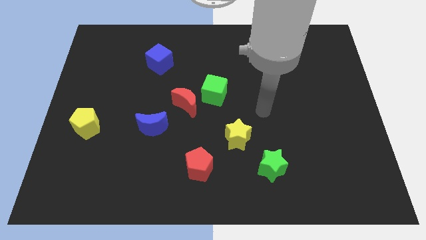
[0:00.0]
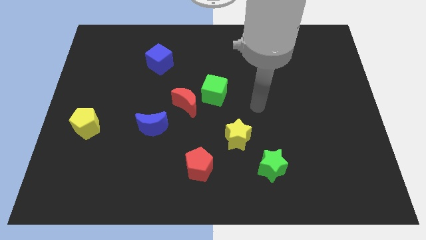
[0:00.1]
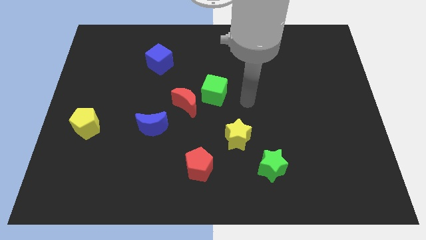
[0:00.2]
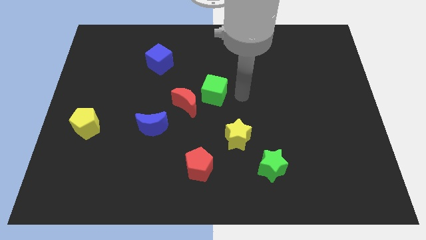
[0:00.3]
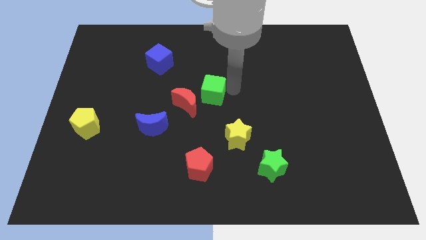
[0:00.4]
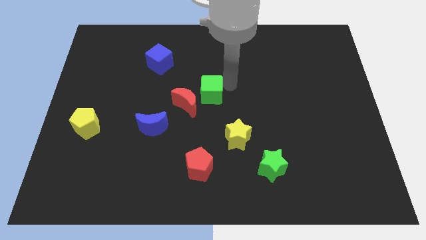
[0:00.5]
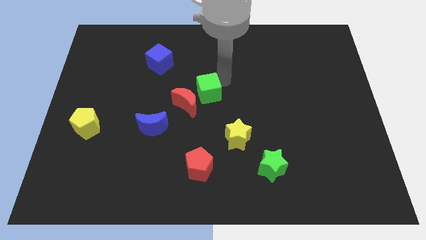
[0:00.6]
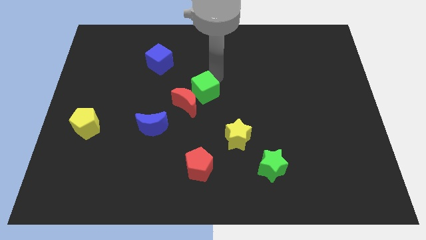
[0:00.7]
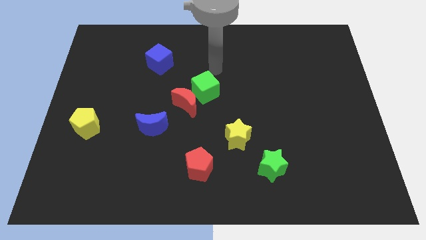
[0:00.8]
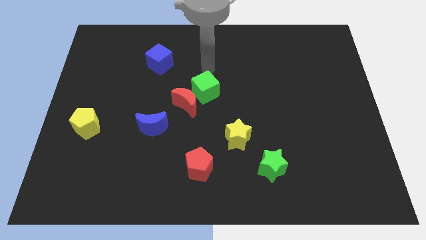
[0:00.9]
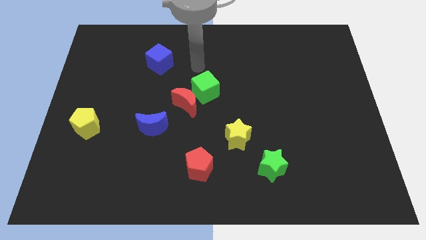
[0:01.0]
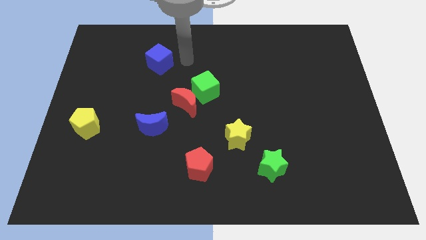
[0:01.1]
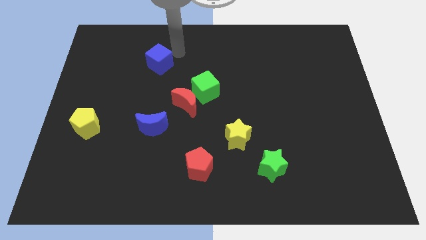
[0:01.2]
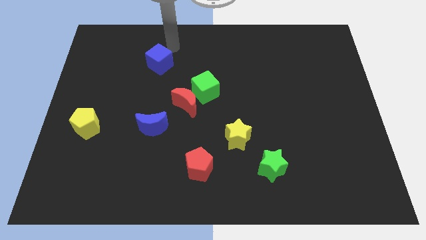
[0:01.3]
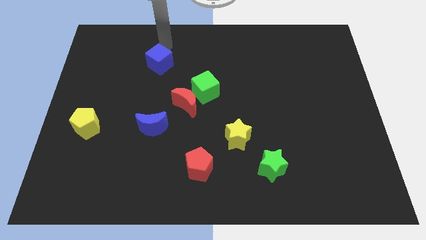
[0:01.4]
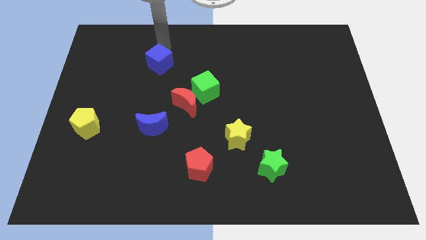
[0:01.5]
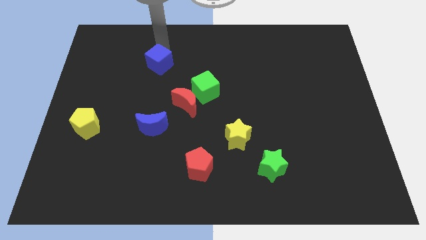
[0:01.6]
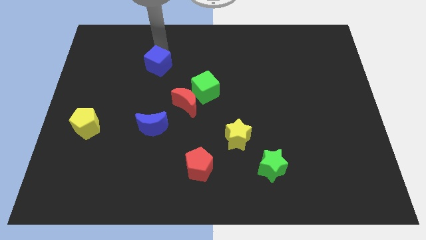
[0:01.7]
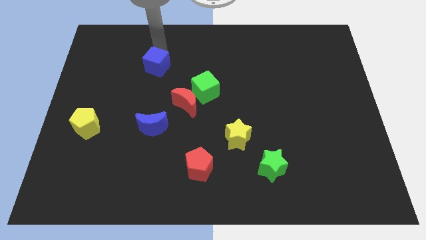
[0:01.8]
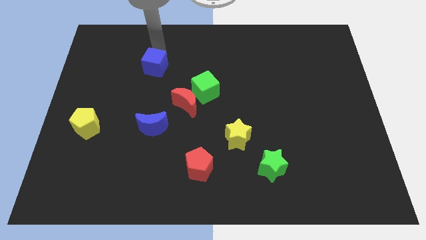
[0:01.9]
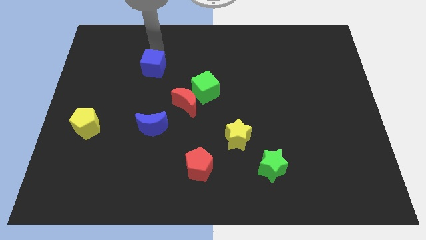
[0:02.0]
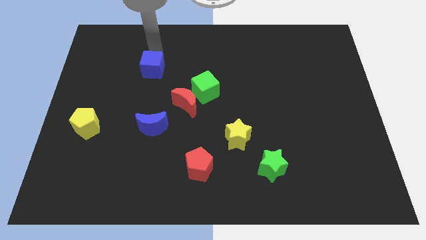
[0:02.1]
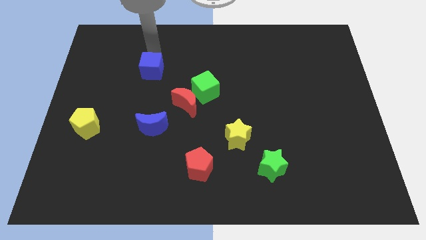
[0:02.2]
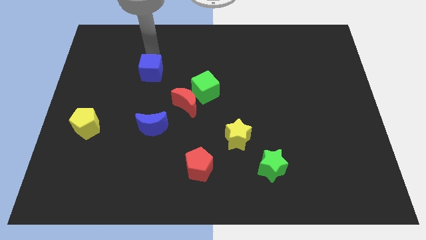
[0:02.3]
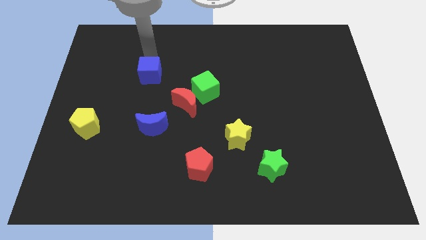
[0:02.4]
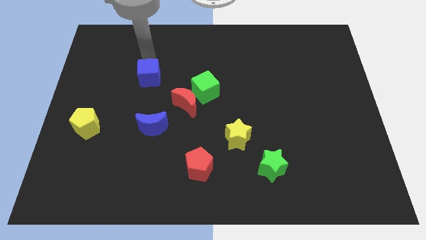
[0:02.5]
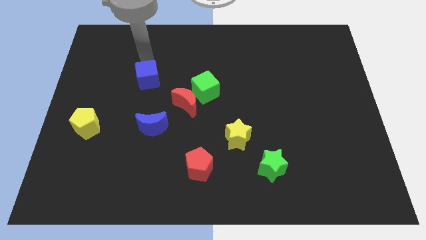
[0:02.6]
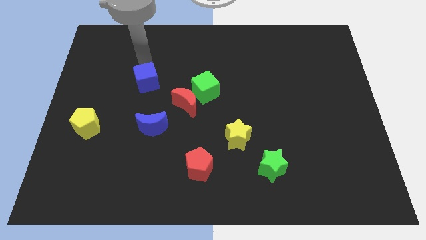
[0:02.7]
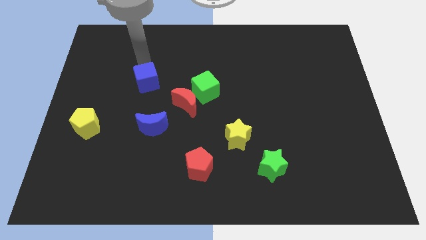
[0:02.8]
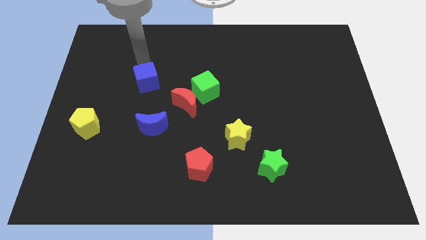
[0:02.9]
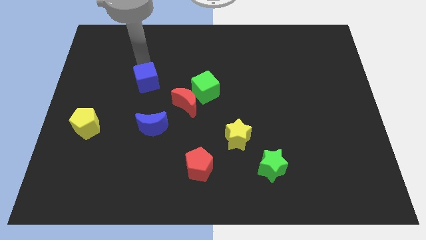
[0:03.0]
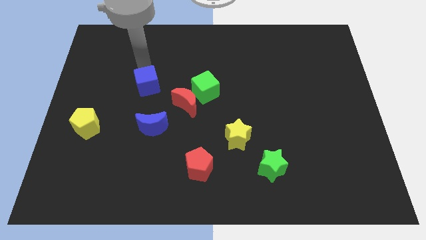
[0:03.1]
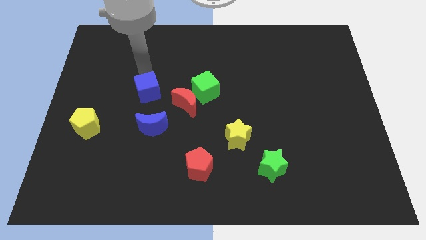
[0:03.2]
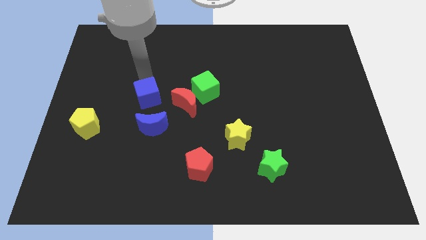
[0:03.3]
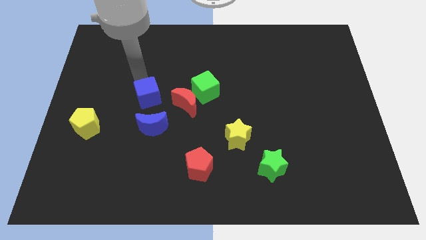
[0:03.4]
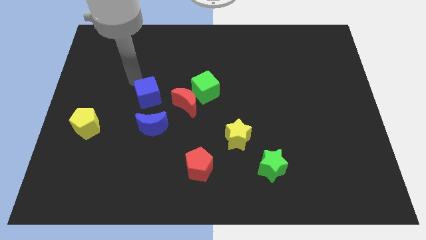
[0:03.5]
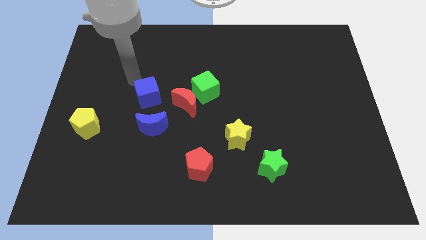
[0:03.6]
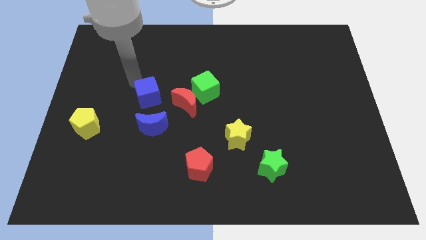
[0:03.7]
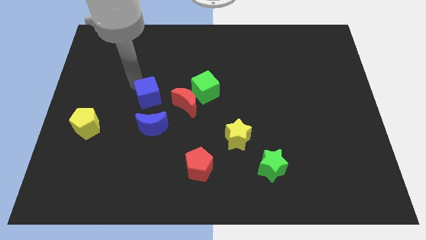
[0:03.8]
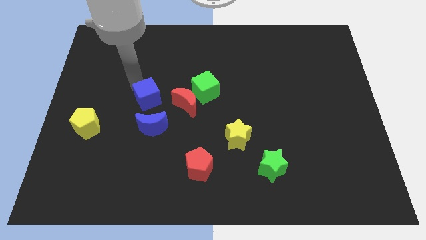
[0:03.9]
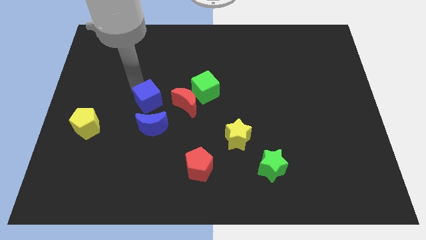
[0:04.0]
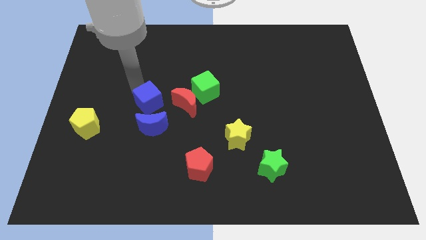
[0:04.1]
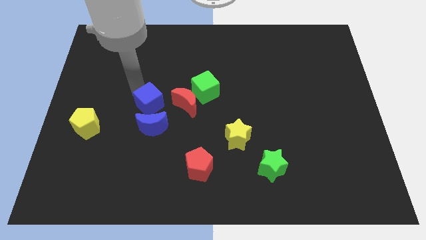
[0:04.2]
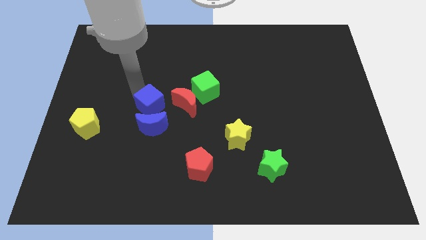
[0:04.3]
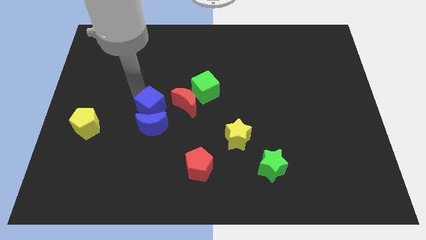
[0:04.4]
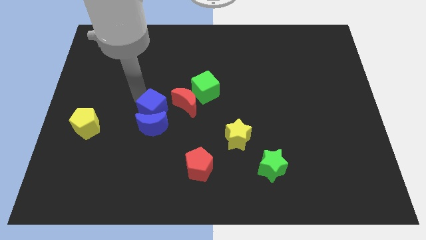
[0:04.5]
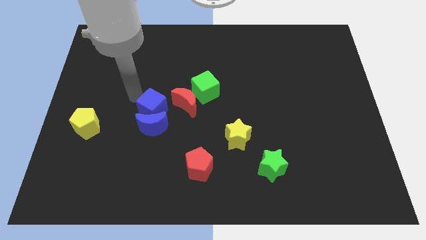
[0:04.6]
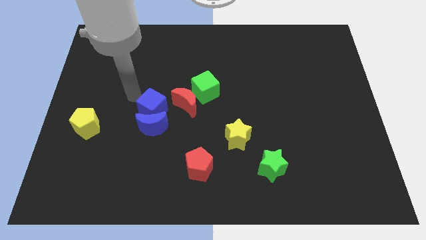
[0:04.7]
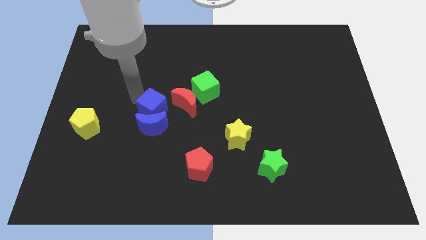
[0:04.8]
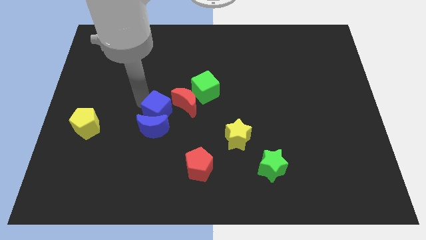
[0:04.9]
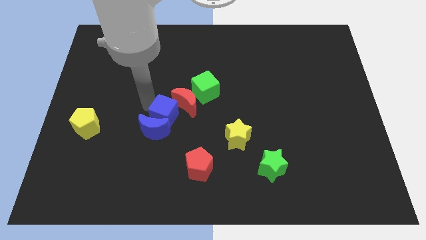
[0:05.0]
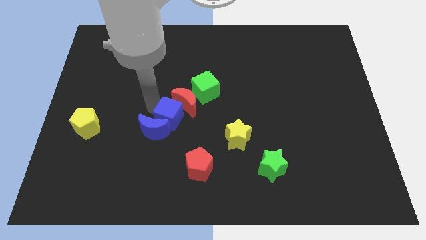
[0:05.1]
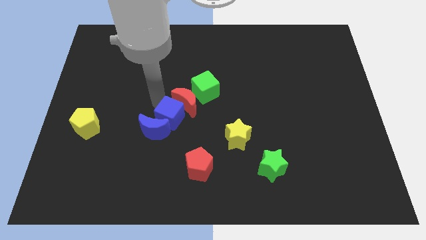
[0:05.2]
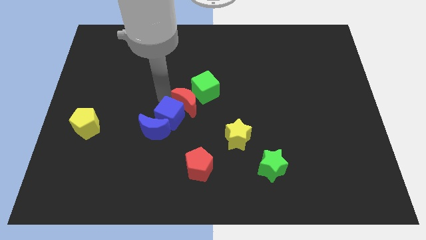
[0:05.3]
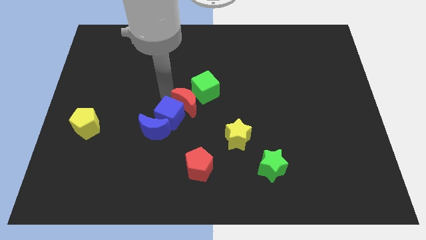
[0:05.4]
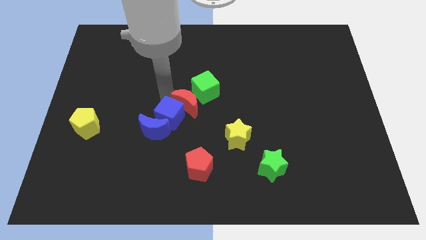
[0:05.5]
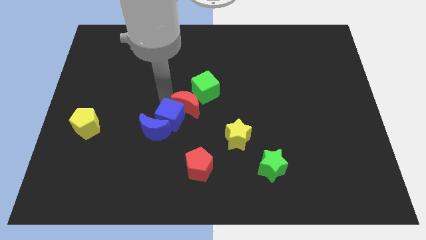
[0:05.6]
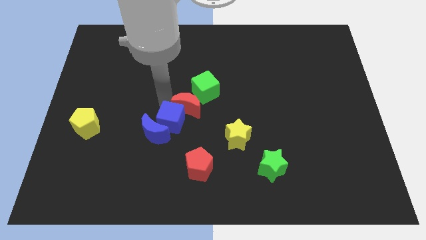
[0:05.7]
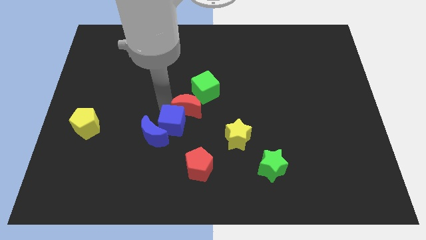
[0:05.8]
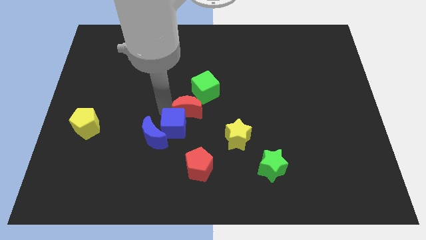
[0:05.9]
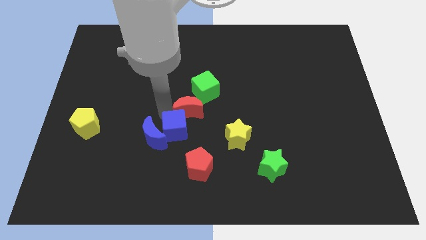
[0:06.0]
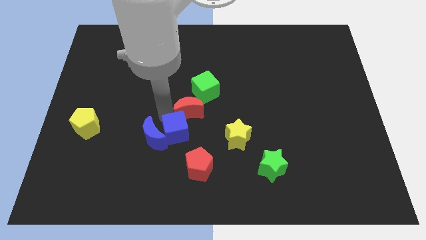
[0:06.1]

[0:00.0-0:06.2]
move the blue cube to the bottom right of the blue moon

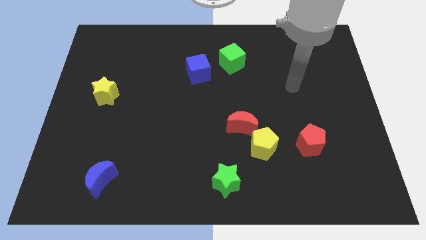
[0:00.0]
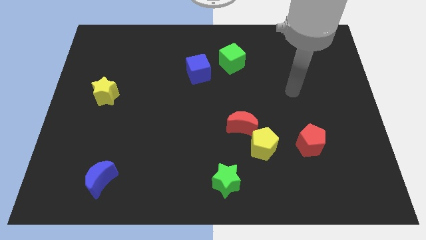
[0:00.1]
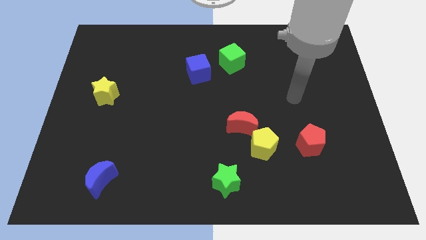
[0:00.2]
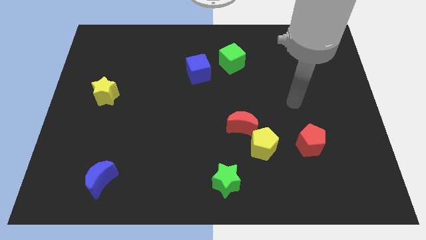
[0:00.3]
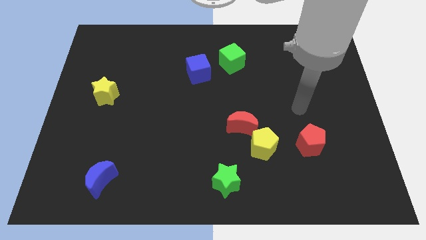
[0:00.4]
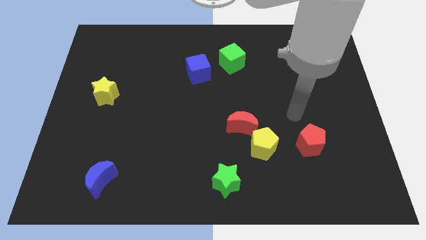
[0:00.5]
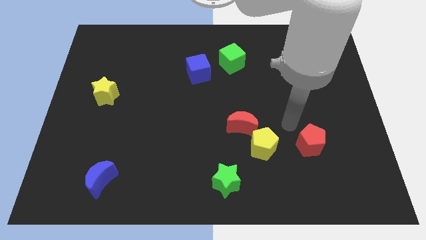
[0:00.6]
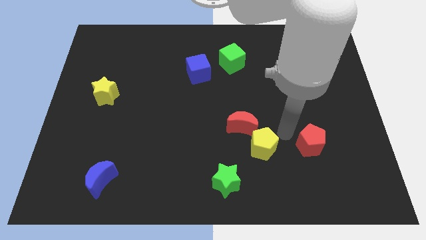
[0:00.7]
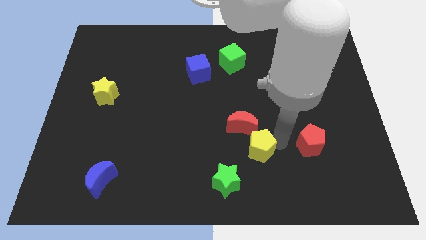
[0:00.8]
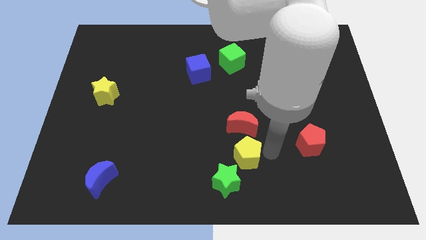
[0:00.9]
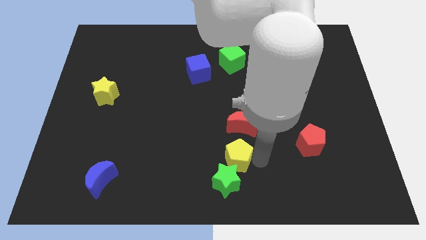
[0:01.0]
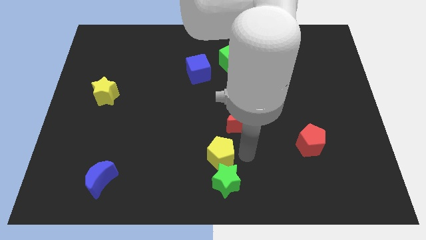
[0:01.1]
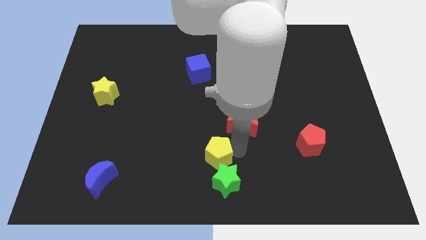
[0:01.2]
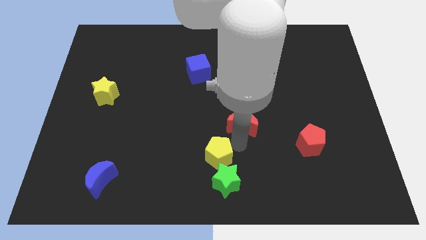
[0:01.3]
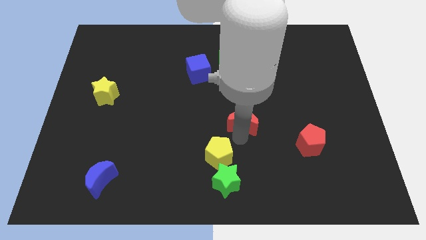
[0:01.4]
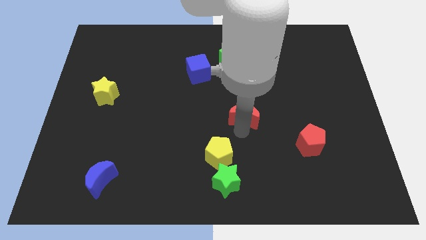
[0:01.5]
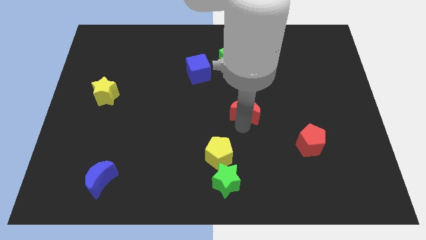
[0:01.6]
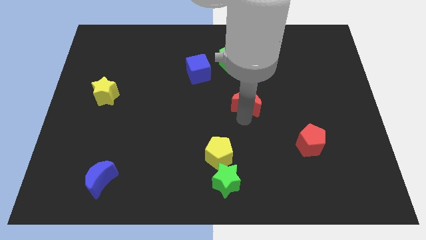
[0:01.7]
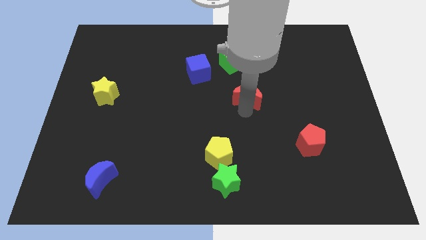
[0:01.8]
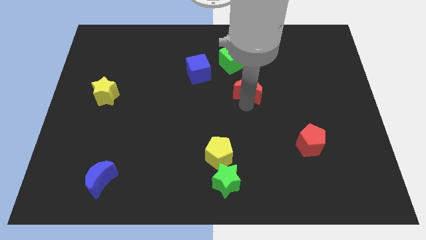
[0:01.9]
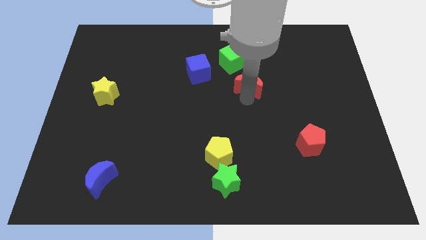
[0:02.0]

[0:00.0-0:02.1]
put the red moon to the bottom right side of the green cube
